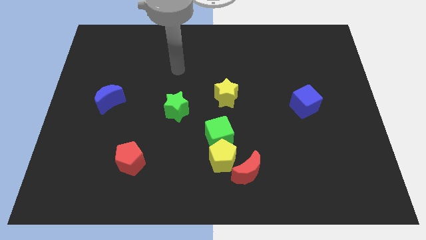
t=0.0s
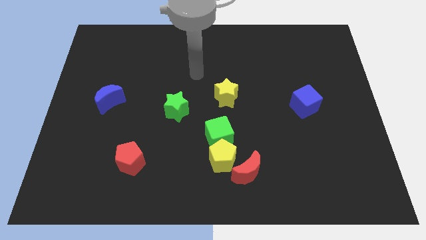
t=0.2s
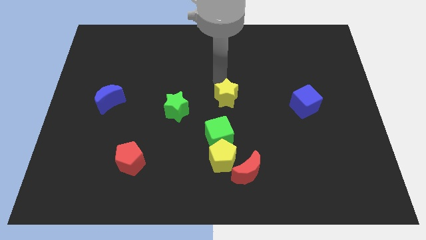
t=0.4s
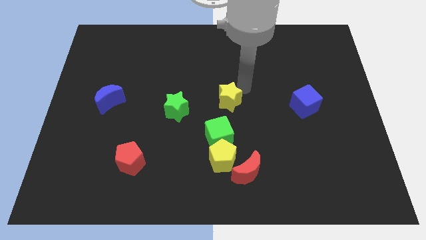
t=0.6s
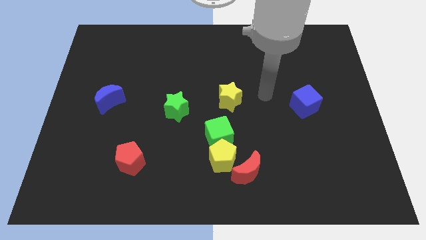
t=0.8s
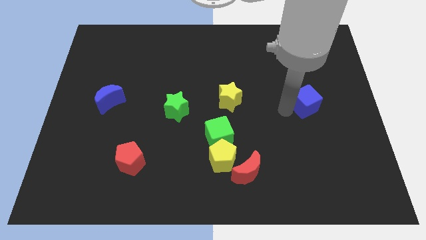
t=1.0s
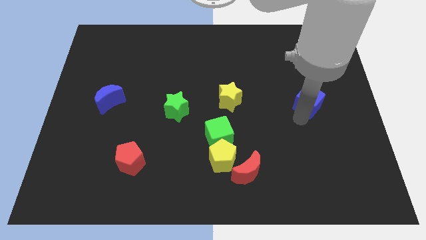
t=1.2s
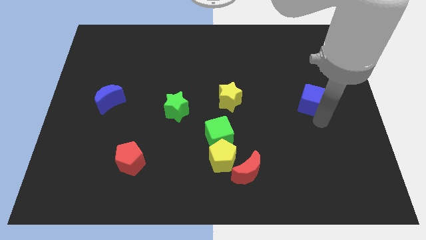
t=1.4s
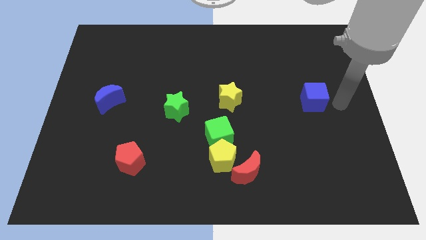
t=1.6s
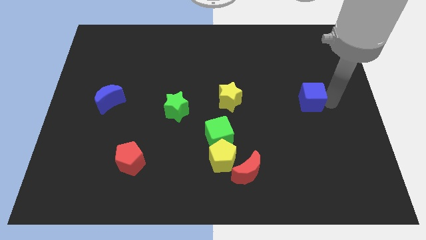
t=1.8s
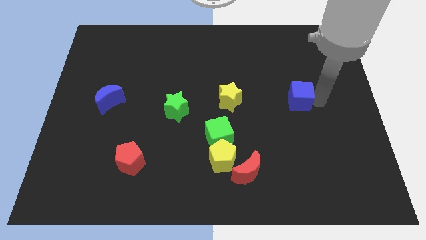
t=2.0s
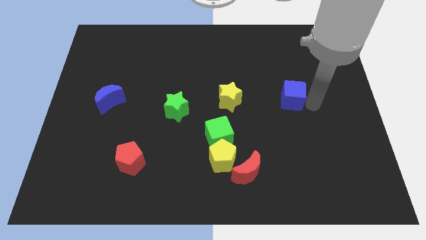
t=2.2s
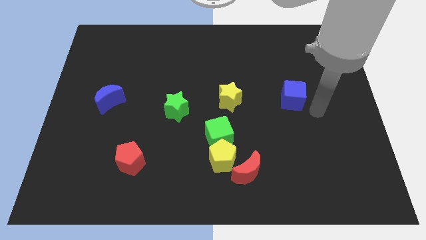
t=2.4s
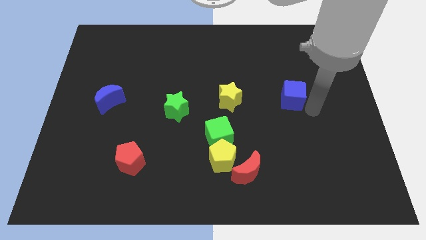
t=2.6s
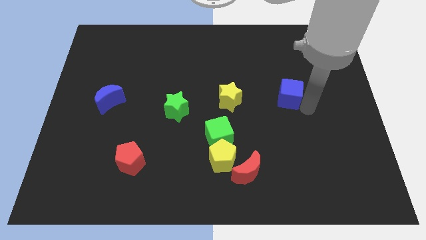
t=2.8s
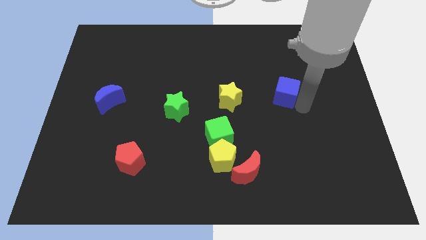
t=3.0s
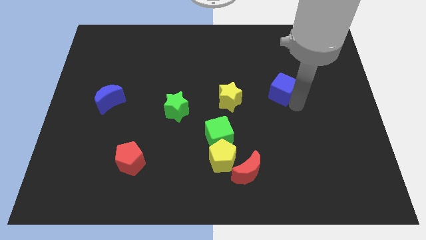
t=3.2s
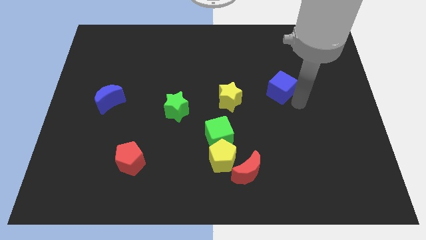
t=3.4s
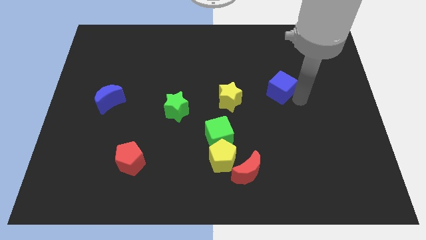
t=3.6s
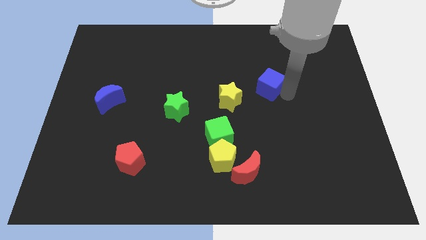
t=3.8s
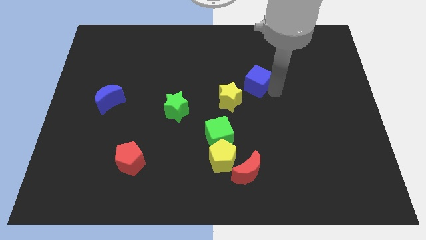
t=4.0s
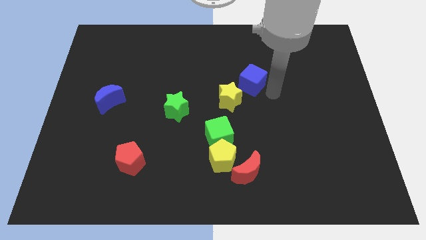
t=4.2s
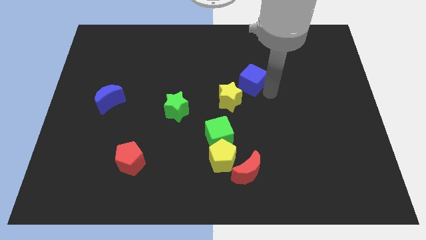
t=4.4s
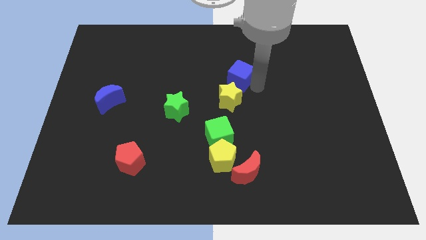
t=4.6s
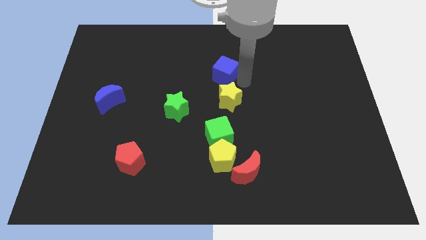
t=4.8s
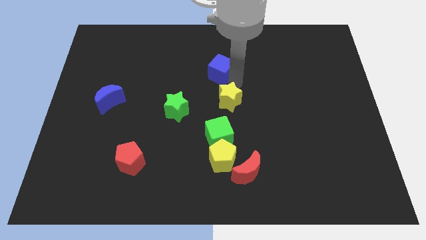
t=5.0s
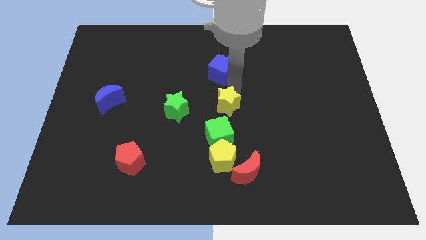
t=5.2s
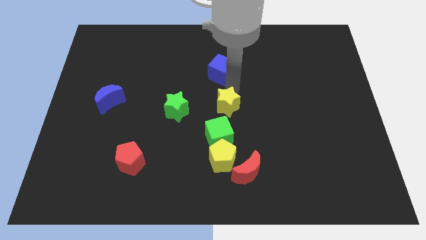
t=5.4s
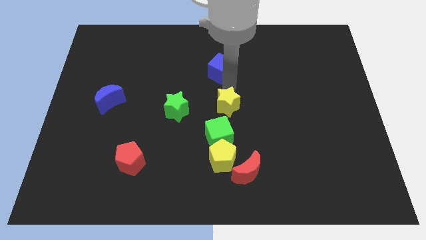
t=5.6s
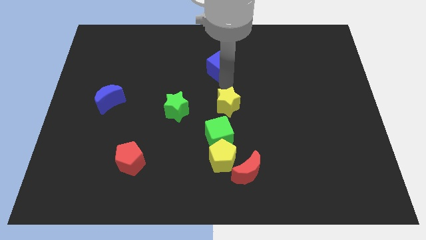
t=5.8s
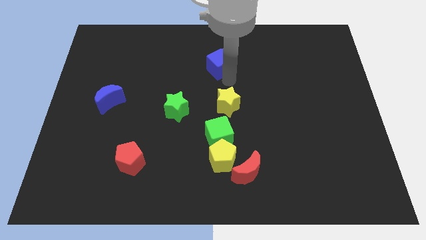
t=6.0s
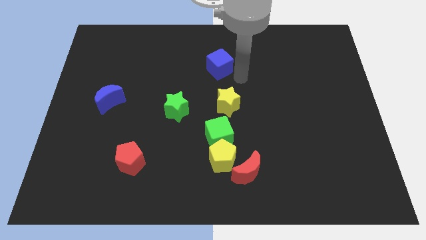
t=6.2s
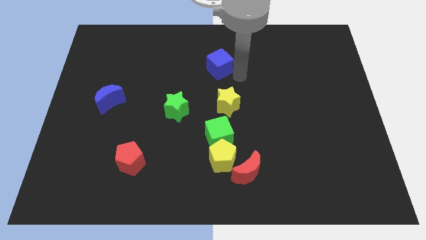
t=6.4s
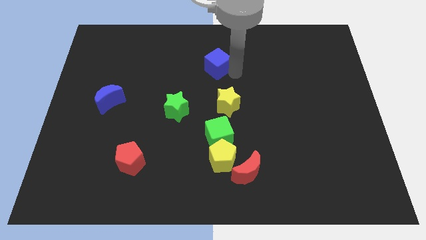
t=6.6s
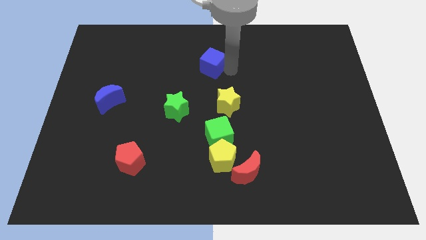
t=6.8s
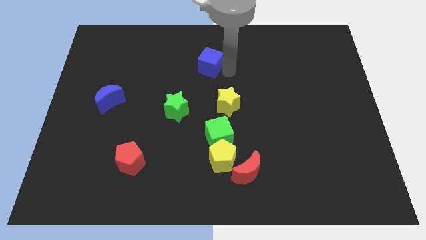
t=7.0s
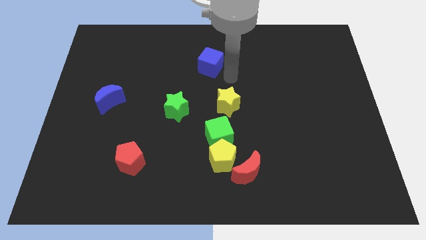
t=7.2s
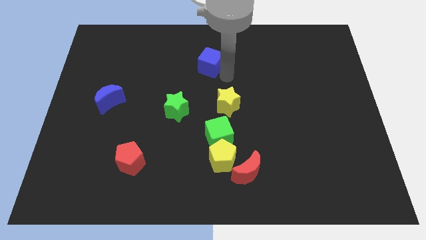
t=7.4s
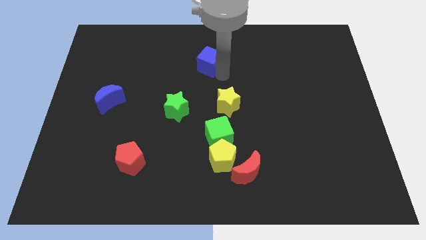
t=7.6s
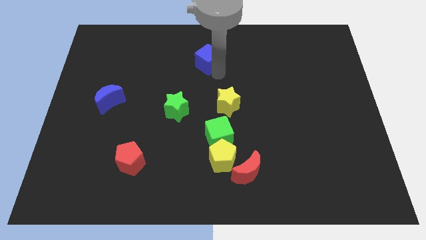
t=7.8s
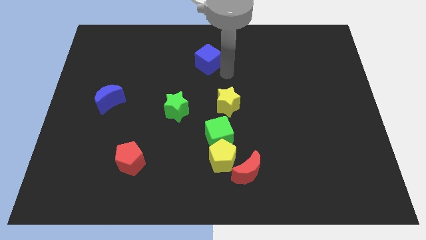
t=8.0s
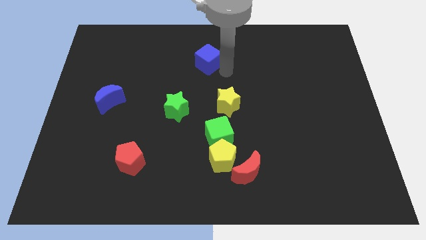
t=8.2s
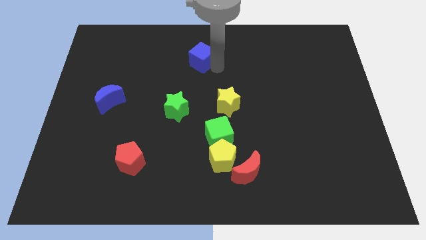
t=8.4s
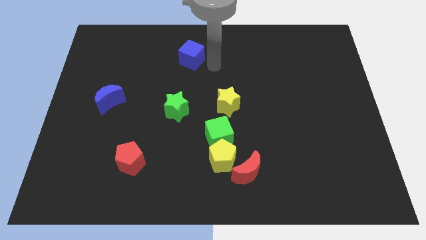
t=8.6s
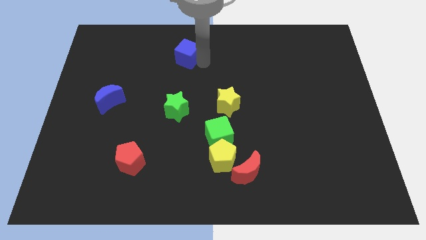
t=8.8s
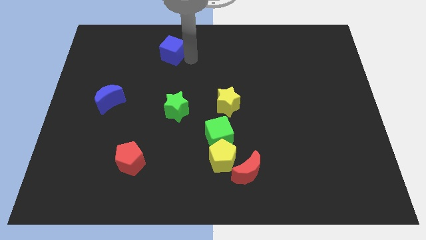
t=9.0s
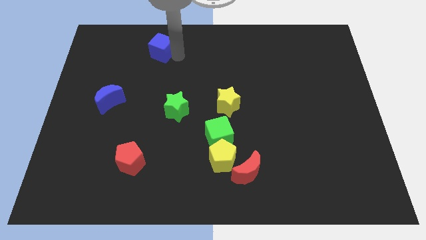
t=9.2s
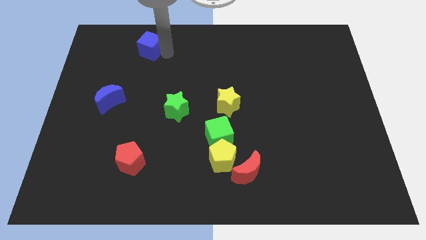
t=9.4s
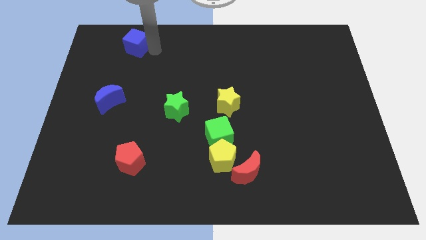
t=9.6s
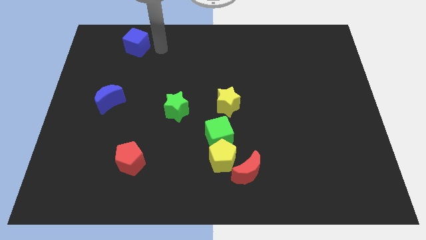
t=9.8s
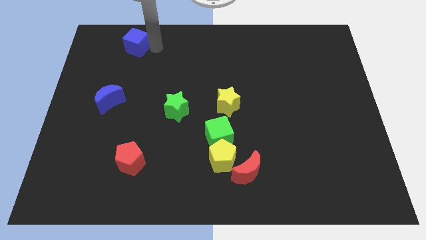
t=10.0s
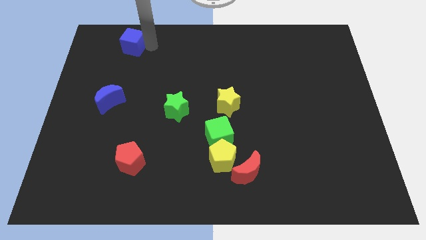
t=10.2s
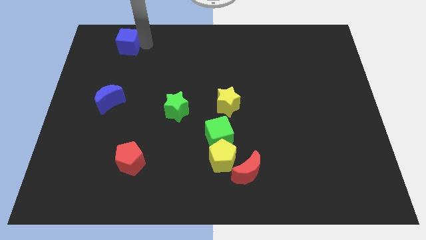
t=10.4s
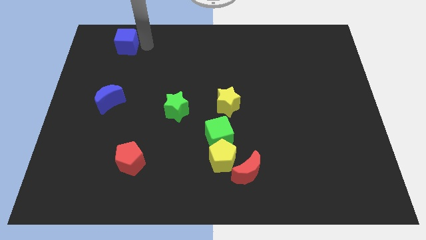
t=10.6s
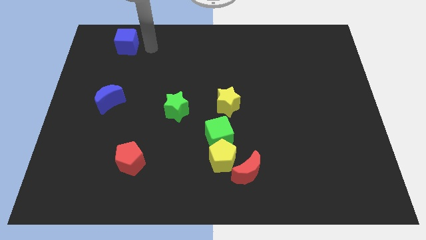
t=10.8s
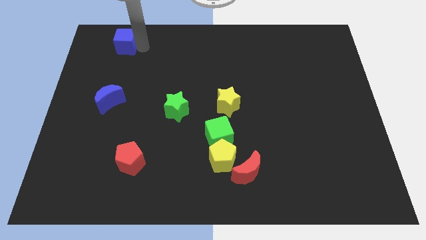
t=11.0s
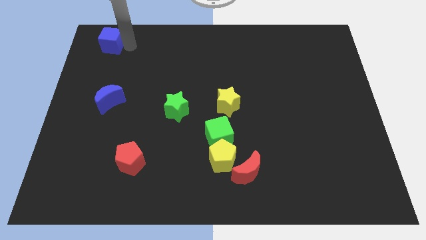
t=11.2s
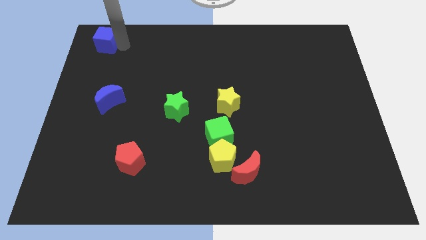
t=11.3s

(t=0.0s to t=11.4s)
slide the blue cube to the top left of the board

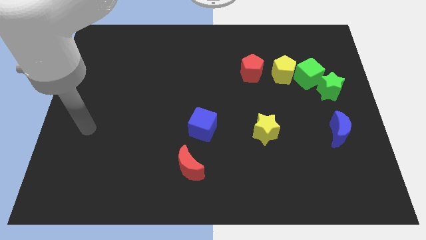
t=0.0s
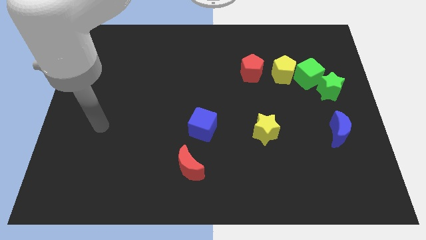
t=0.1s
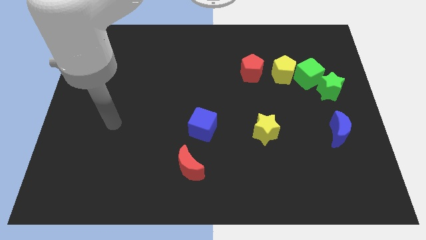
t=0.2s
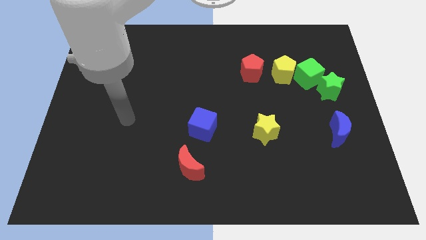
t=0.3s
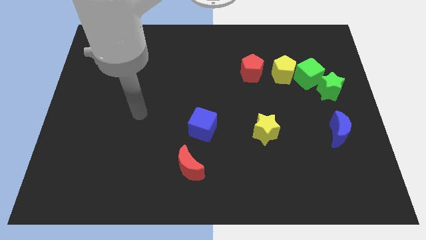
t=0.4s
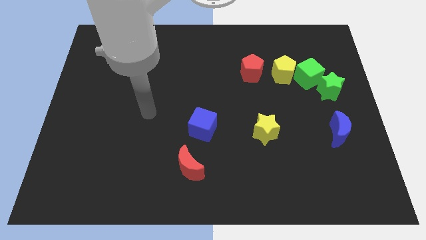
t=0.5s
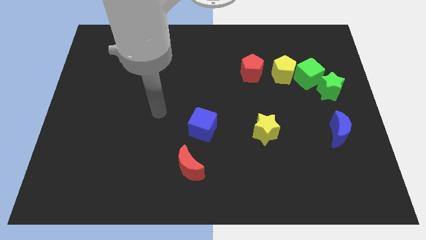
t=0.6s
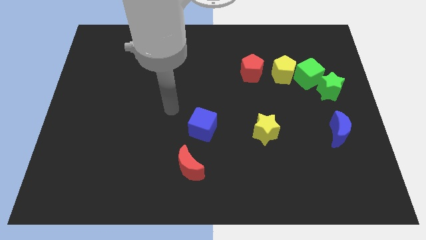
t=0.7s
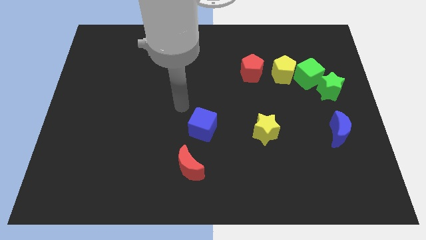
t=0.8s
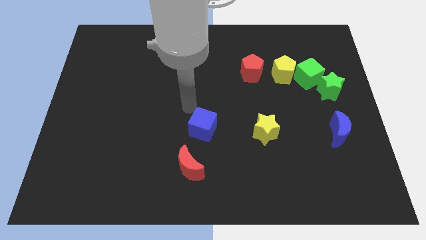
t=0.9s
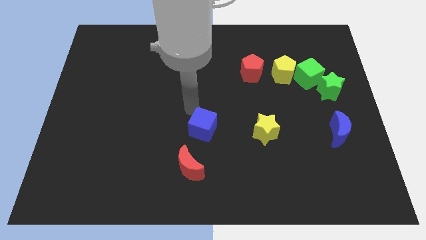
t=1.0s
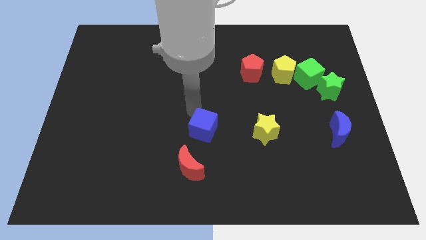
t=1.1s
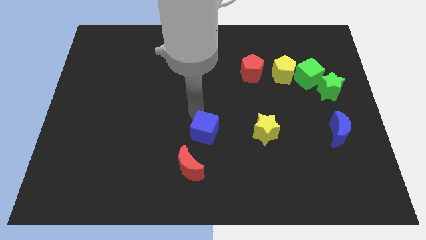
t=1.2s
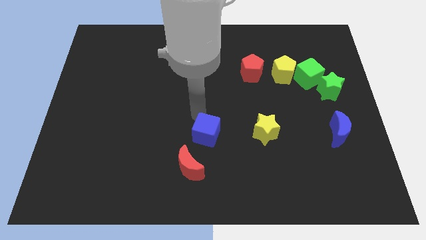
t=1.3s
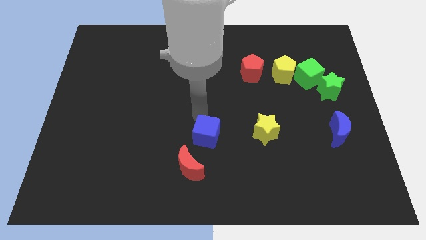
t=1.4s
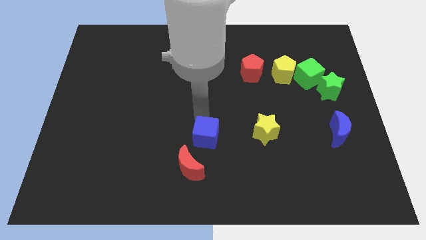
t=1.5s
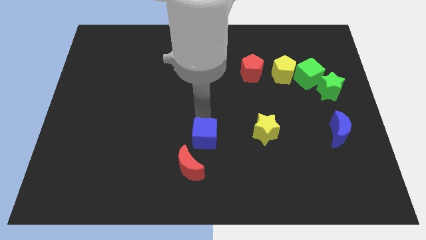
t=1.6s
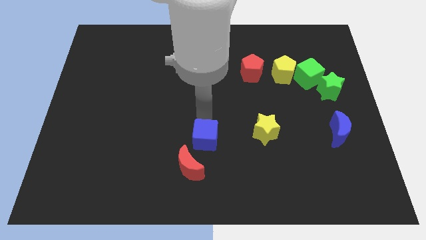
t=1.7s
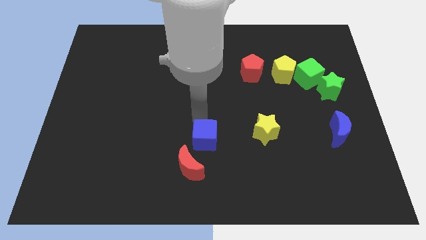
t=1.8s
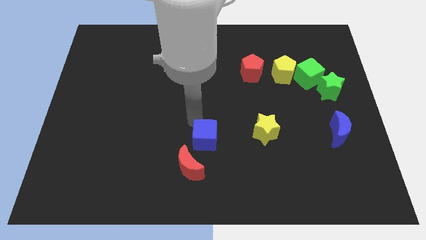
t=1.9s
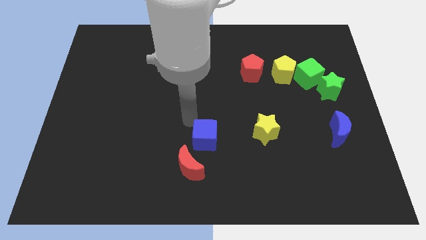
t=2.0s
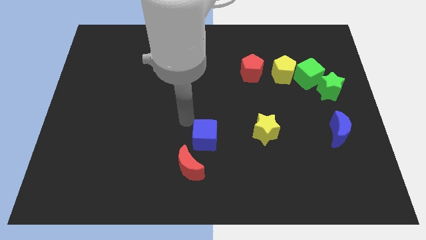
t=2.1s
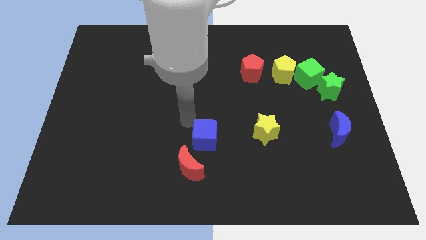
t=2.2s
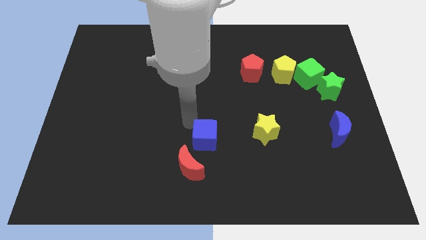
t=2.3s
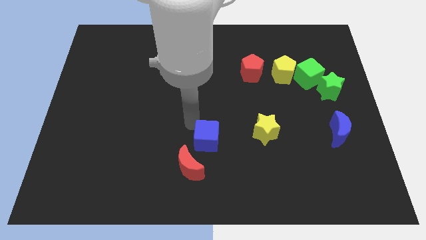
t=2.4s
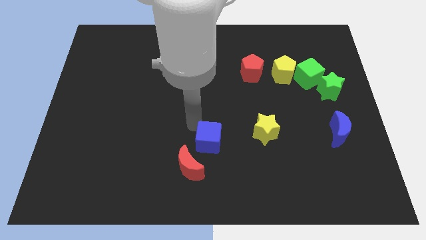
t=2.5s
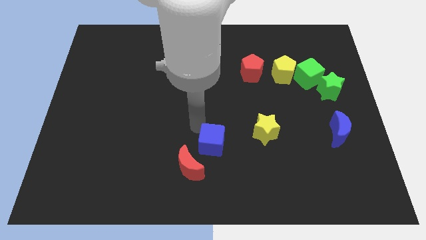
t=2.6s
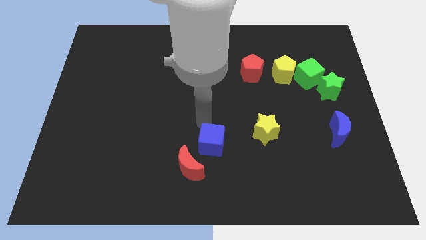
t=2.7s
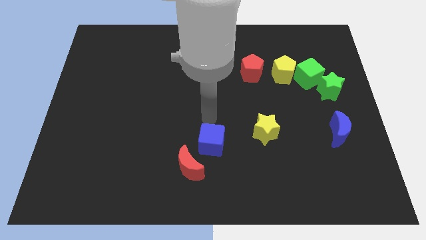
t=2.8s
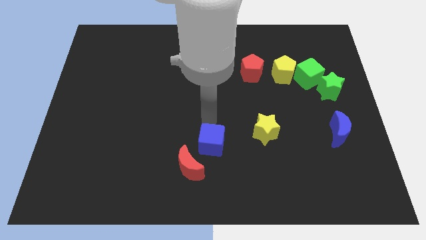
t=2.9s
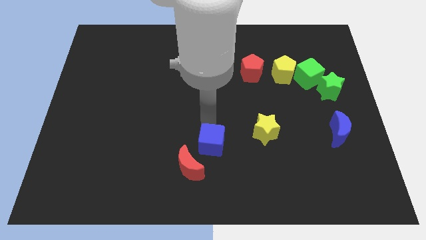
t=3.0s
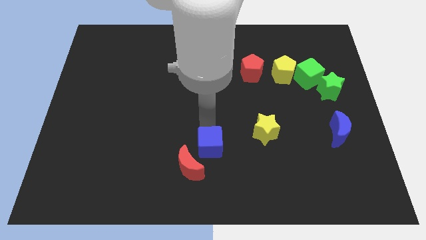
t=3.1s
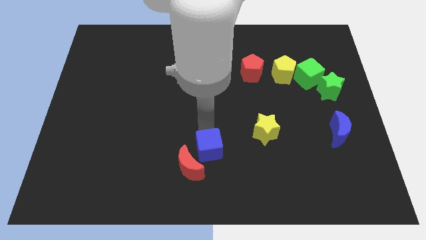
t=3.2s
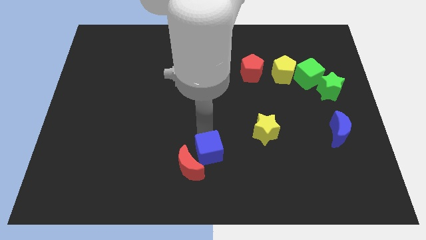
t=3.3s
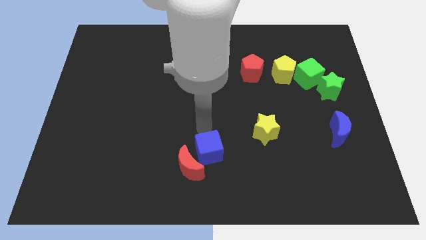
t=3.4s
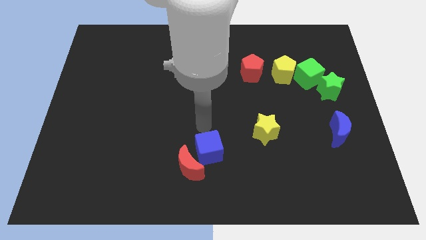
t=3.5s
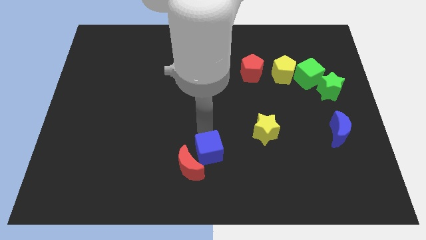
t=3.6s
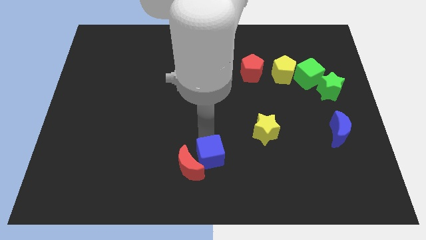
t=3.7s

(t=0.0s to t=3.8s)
move the blue cube to the bottom side
